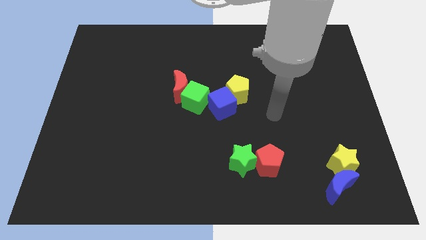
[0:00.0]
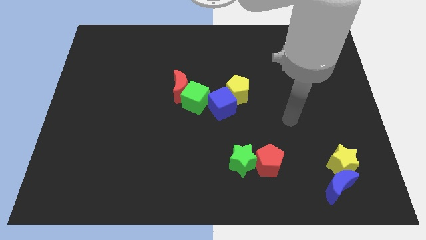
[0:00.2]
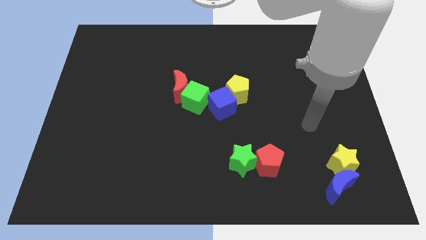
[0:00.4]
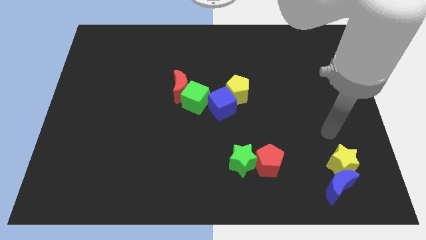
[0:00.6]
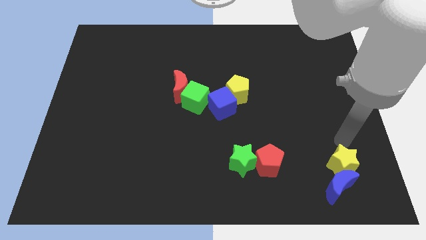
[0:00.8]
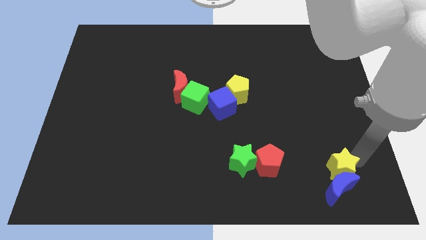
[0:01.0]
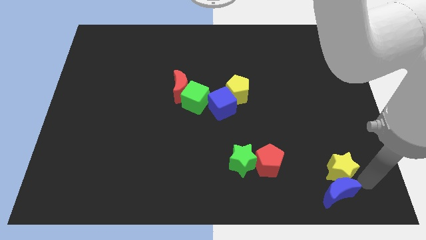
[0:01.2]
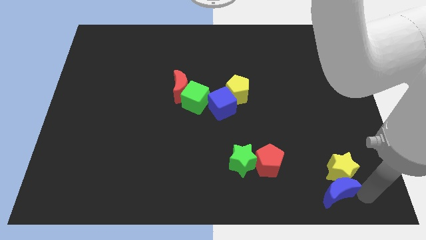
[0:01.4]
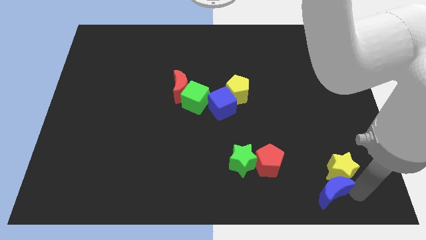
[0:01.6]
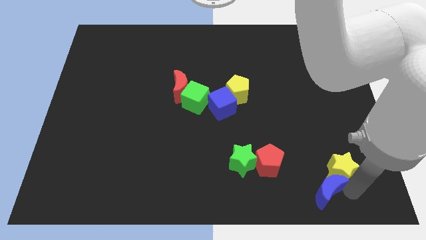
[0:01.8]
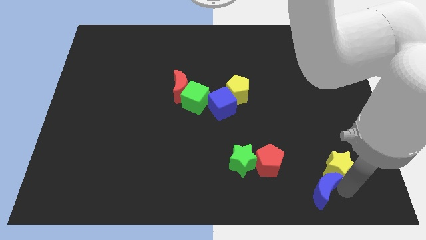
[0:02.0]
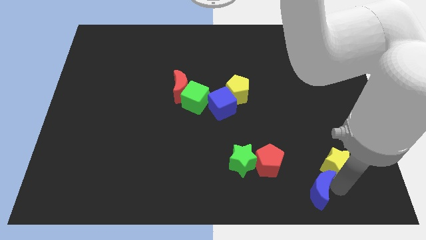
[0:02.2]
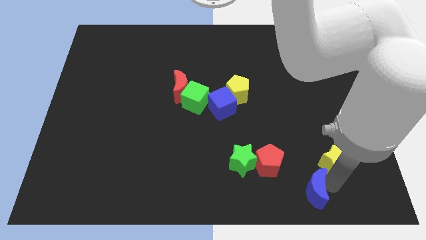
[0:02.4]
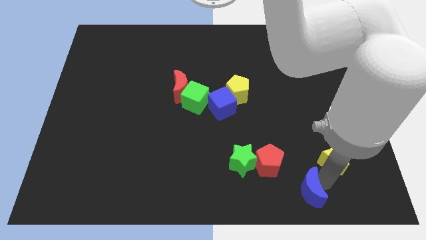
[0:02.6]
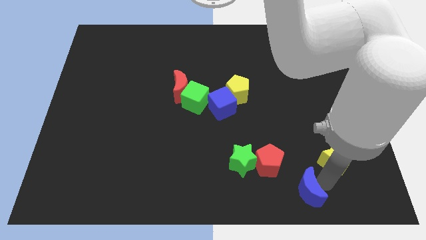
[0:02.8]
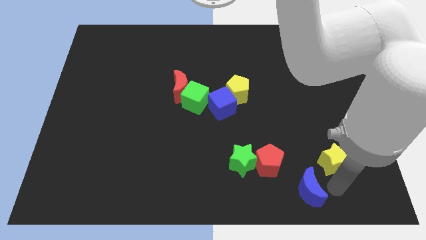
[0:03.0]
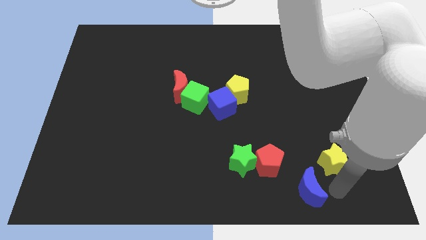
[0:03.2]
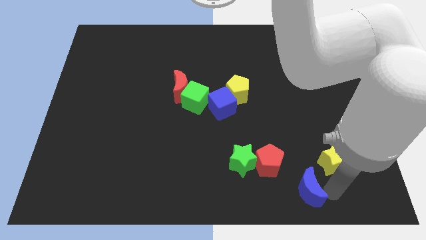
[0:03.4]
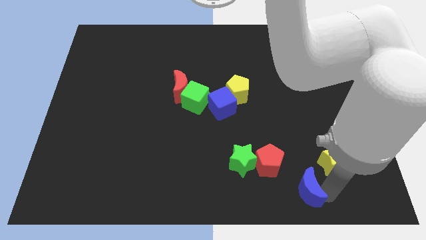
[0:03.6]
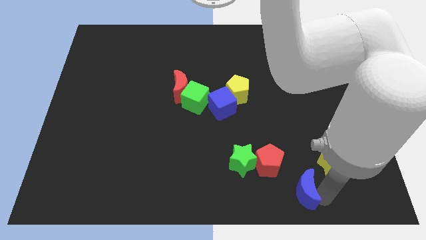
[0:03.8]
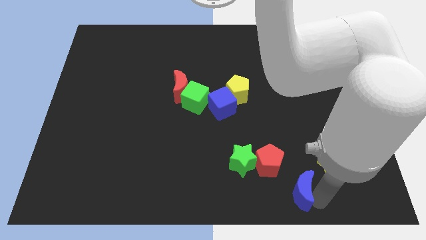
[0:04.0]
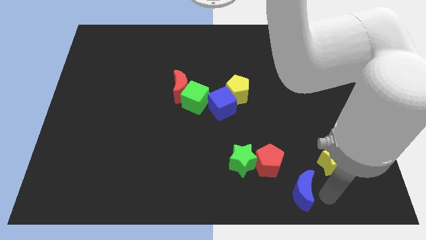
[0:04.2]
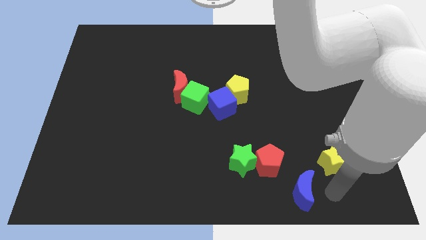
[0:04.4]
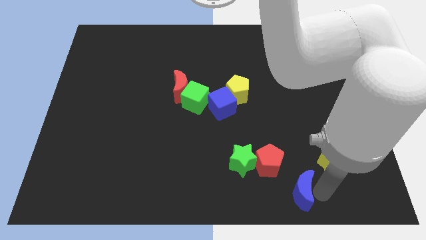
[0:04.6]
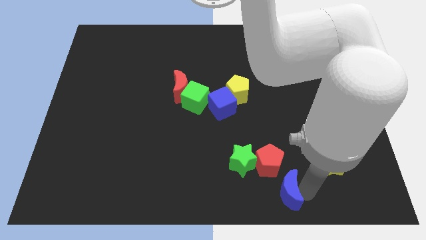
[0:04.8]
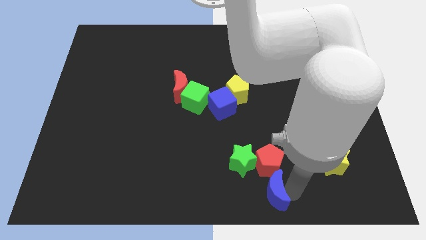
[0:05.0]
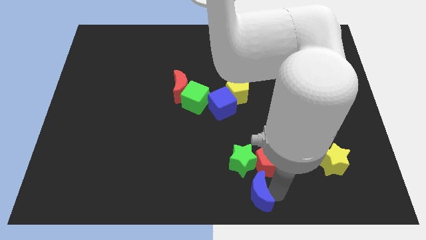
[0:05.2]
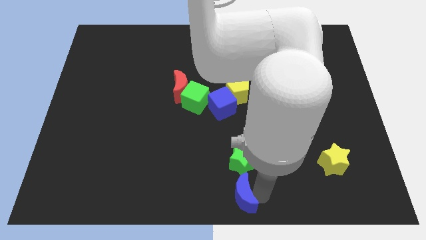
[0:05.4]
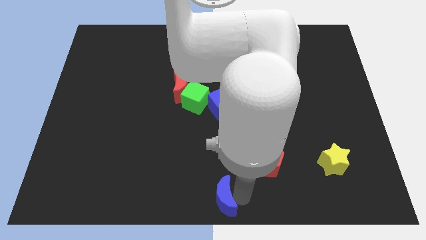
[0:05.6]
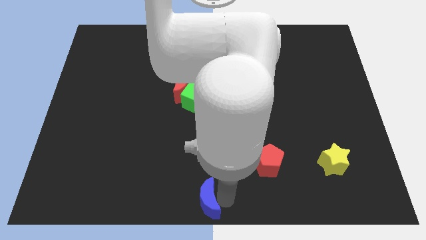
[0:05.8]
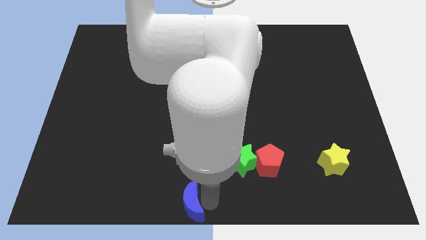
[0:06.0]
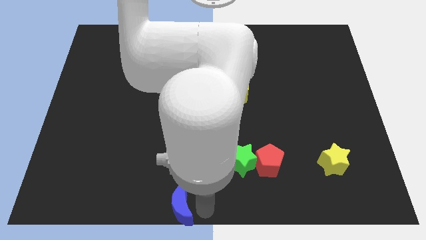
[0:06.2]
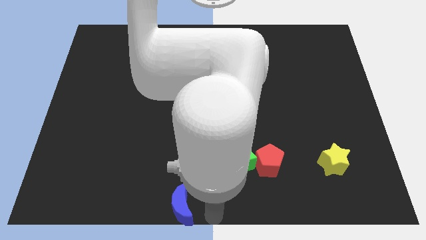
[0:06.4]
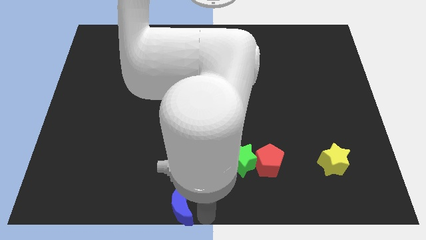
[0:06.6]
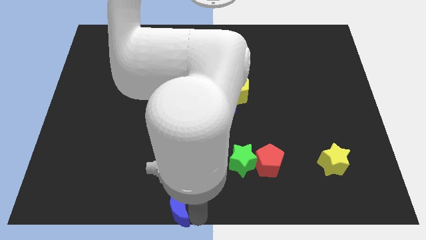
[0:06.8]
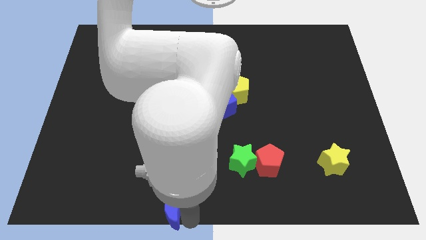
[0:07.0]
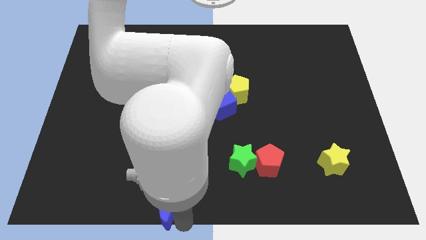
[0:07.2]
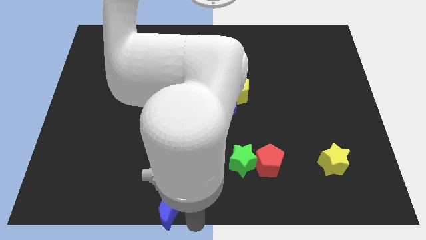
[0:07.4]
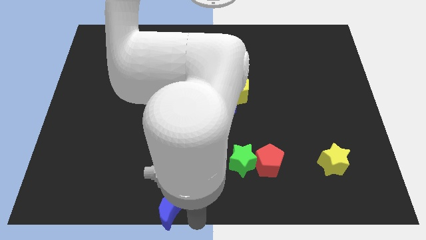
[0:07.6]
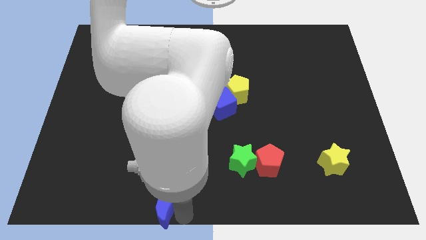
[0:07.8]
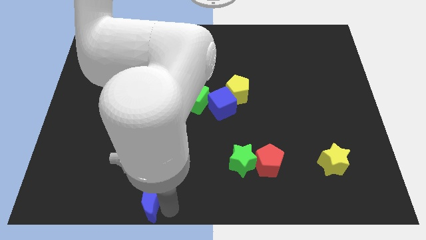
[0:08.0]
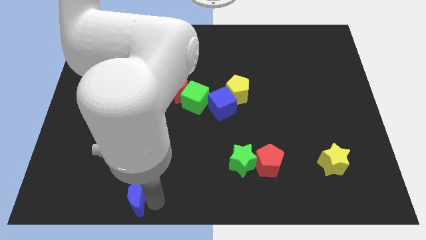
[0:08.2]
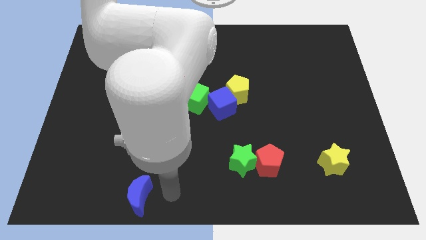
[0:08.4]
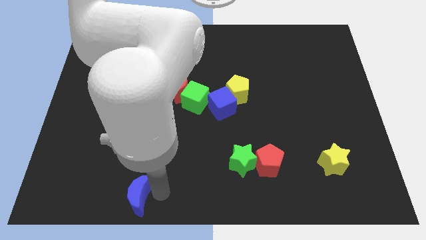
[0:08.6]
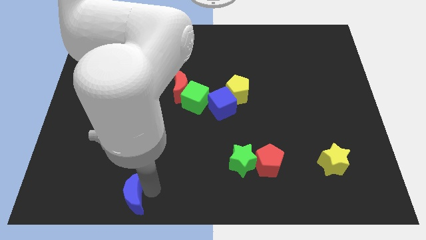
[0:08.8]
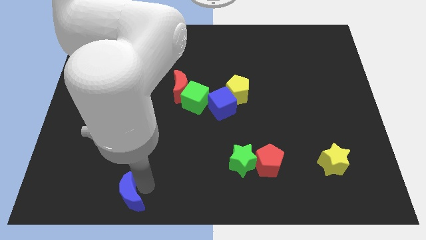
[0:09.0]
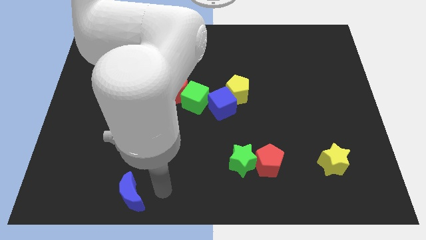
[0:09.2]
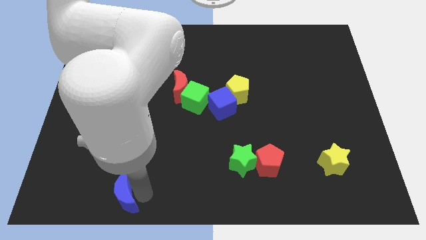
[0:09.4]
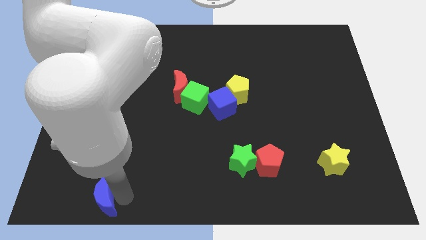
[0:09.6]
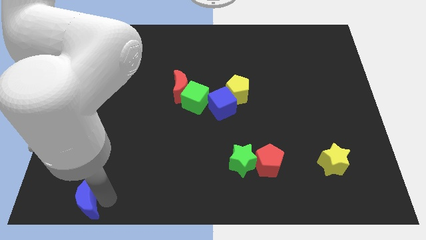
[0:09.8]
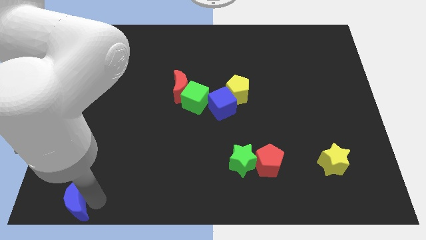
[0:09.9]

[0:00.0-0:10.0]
push the blue moon to the lower left corner
